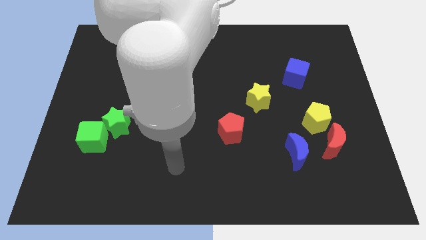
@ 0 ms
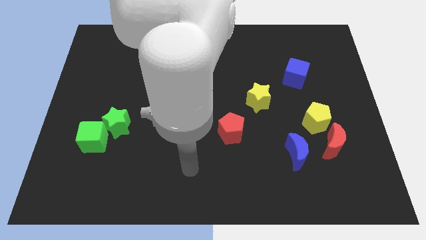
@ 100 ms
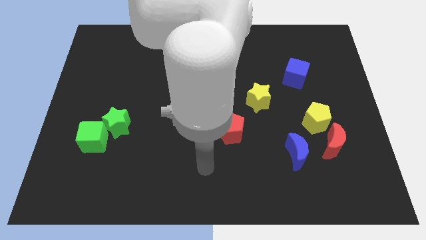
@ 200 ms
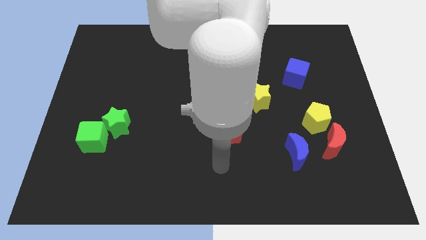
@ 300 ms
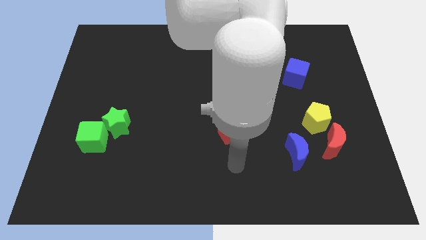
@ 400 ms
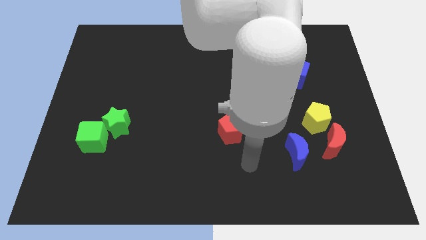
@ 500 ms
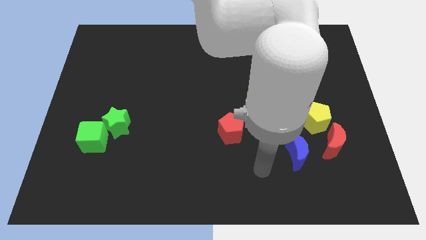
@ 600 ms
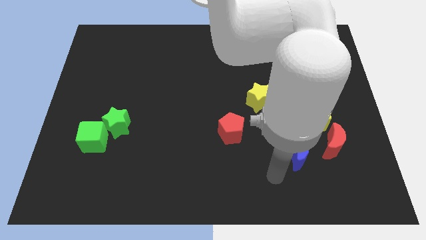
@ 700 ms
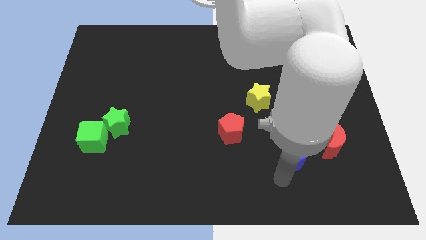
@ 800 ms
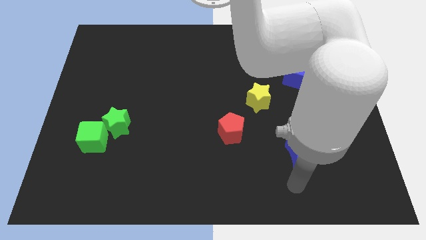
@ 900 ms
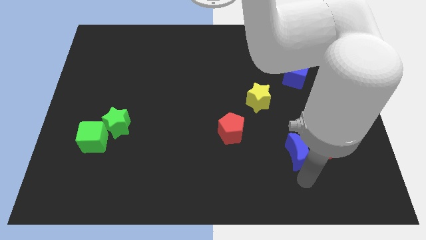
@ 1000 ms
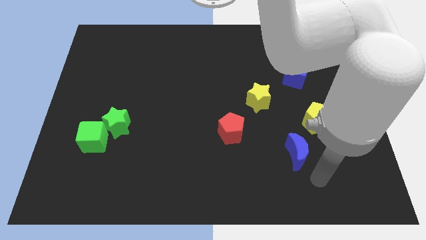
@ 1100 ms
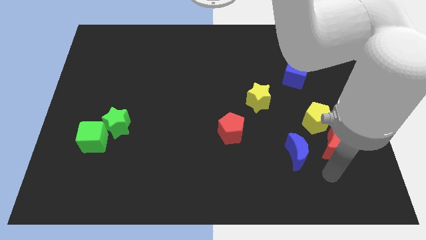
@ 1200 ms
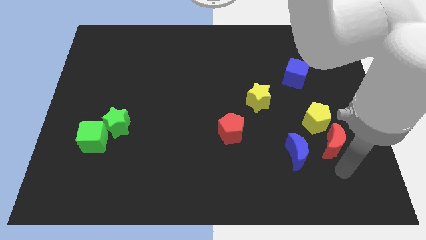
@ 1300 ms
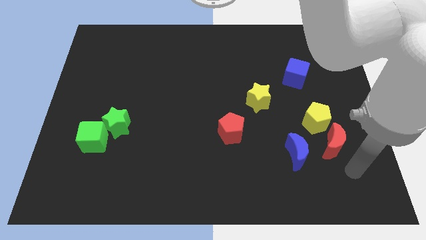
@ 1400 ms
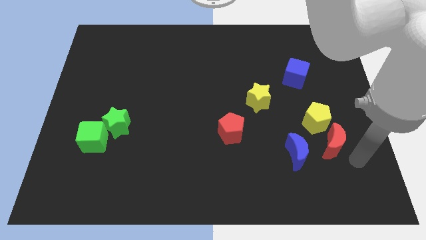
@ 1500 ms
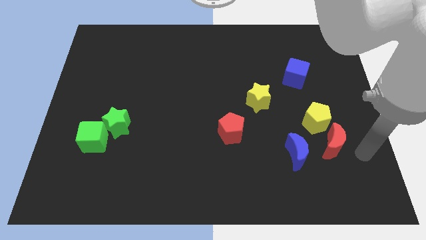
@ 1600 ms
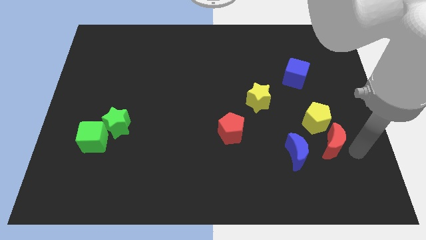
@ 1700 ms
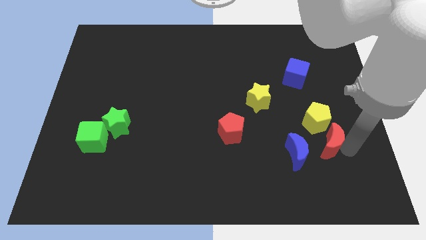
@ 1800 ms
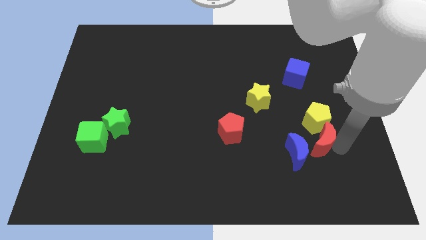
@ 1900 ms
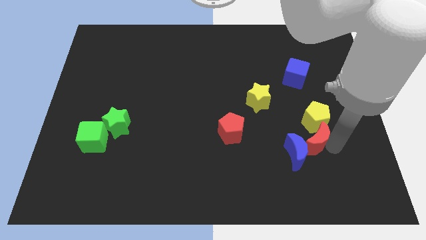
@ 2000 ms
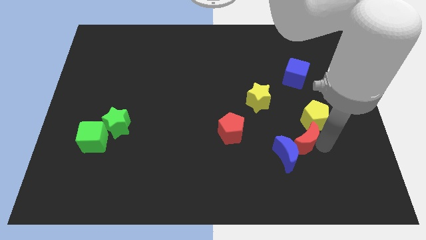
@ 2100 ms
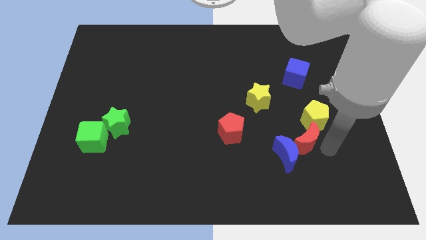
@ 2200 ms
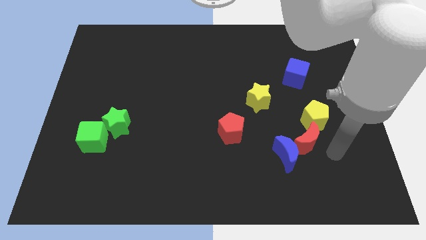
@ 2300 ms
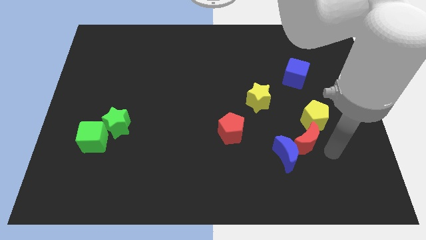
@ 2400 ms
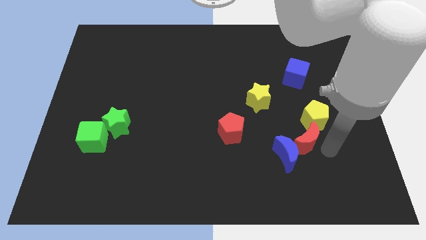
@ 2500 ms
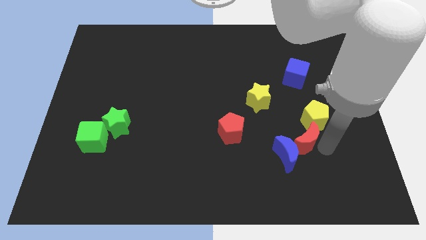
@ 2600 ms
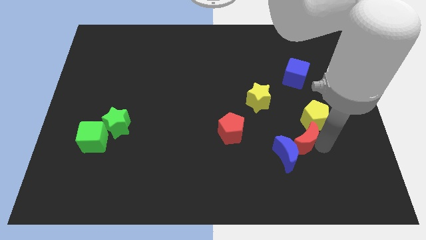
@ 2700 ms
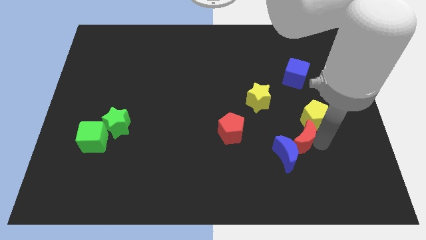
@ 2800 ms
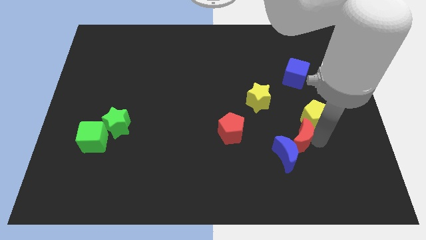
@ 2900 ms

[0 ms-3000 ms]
push the red moon left somewhat

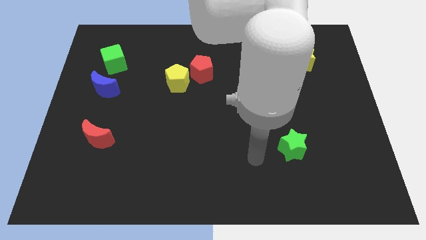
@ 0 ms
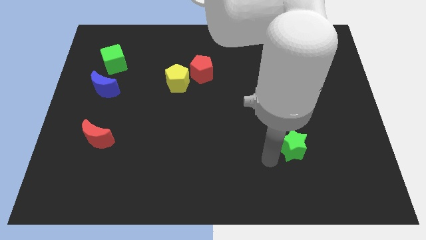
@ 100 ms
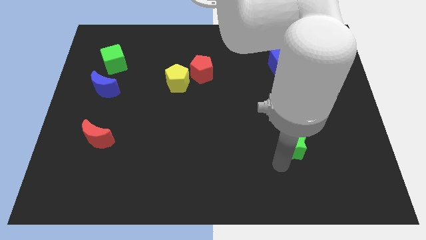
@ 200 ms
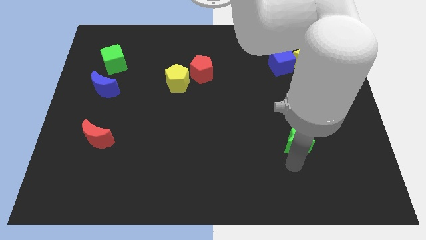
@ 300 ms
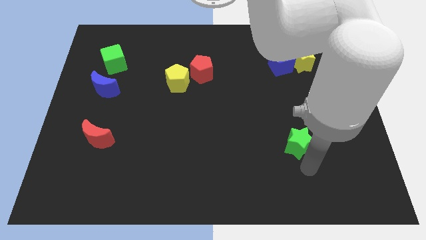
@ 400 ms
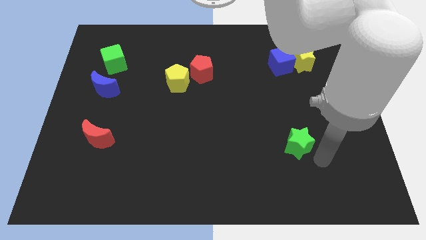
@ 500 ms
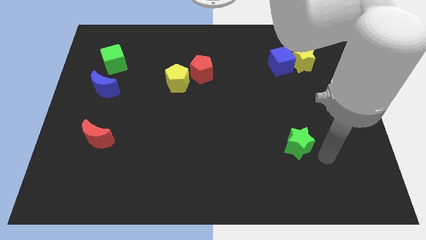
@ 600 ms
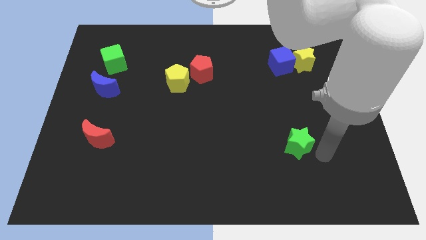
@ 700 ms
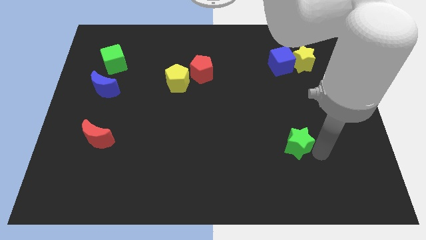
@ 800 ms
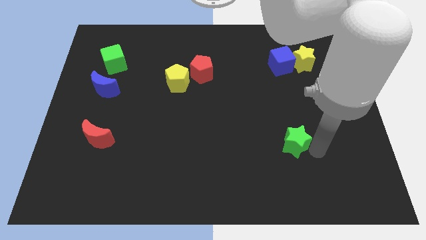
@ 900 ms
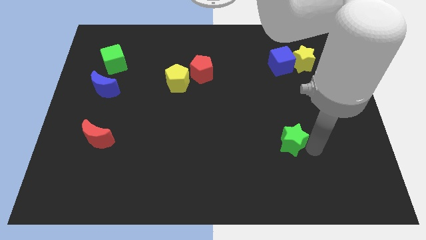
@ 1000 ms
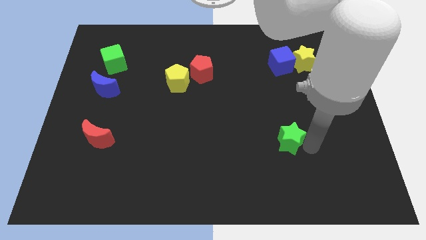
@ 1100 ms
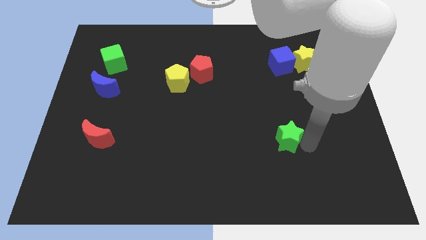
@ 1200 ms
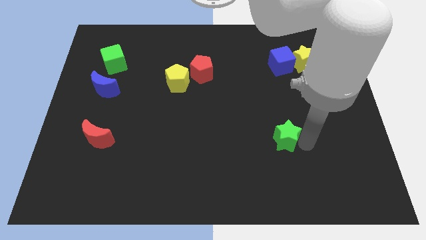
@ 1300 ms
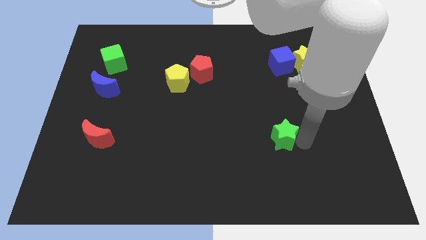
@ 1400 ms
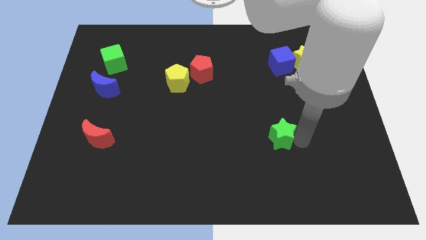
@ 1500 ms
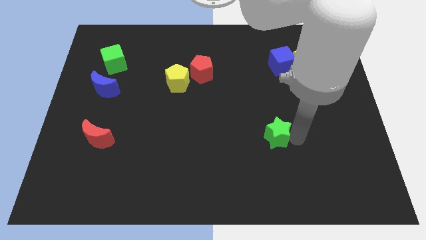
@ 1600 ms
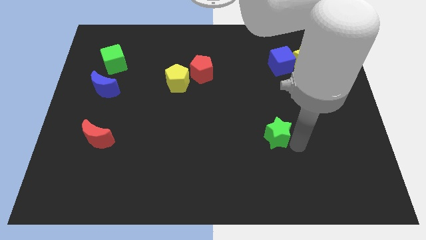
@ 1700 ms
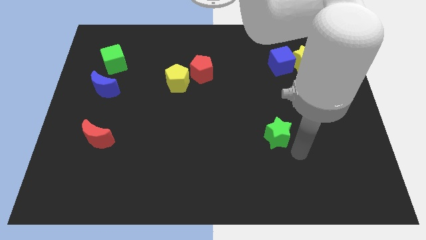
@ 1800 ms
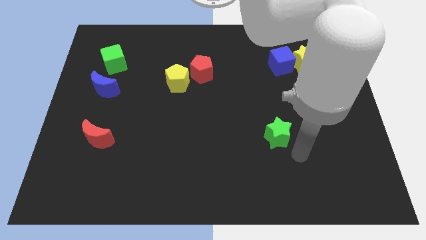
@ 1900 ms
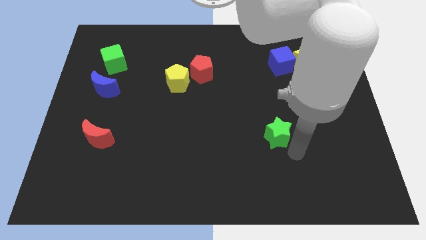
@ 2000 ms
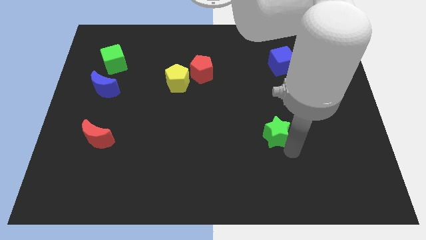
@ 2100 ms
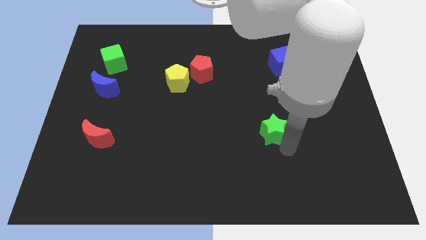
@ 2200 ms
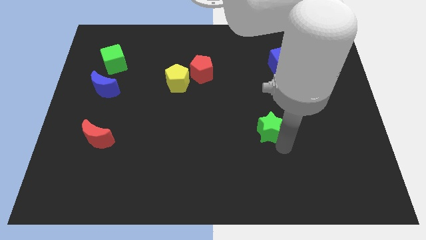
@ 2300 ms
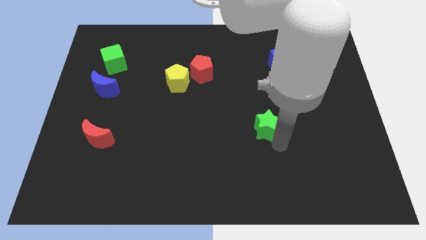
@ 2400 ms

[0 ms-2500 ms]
push the green star slightly diagonally upwards and to the left

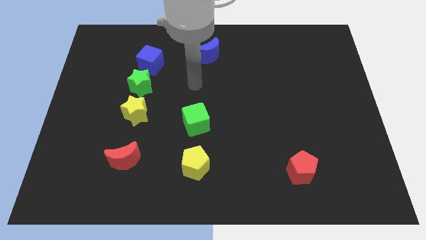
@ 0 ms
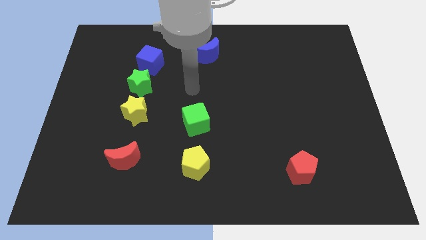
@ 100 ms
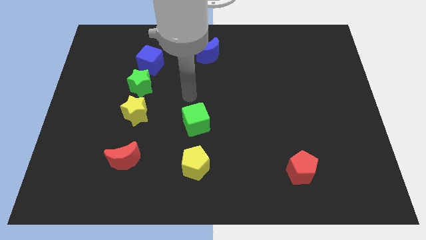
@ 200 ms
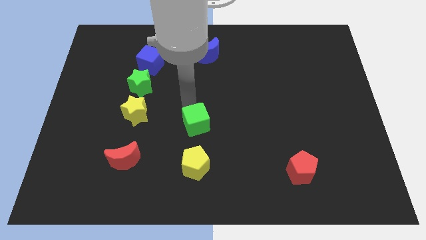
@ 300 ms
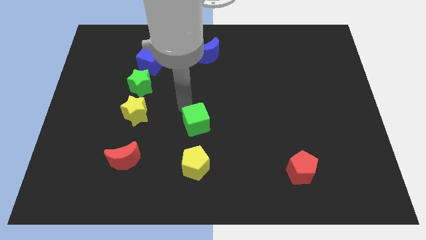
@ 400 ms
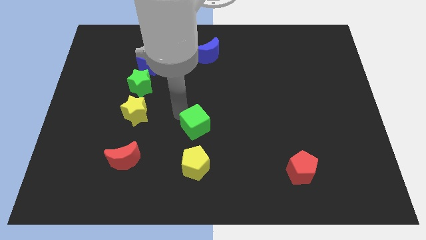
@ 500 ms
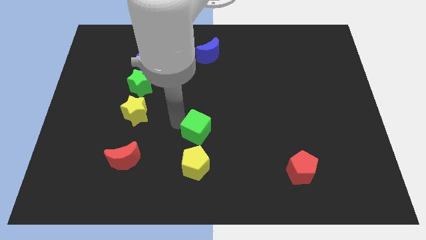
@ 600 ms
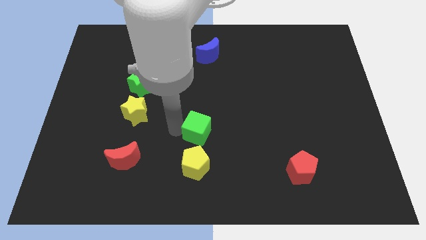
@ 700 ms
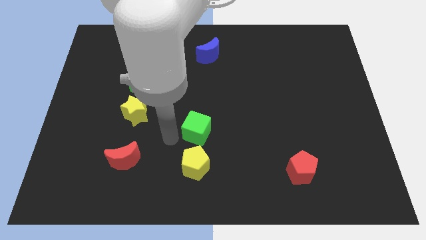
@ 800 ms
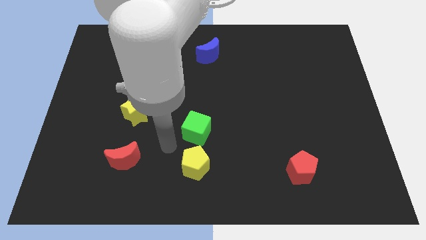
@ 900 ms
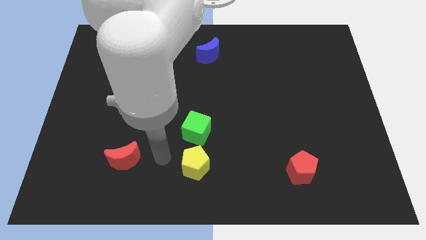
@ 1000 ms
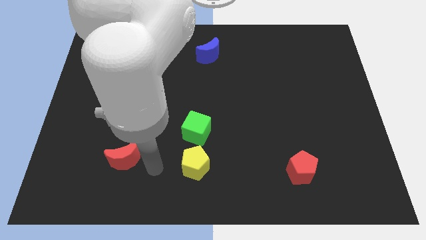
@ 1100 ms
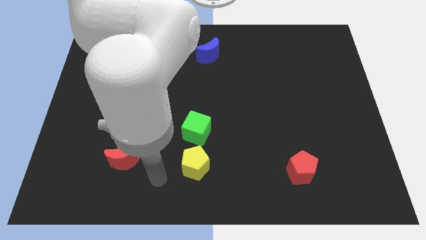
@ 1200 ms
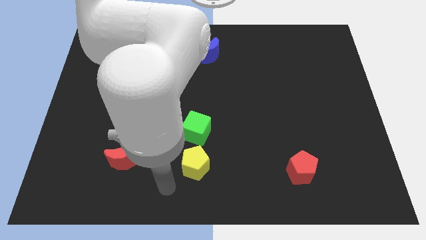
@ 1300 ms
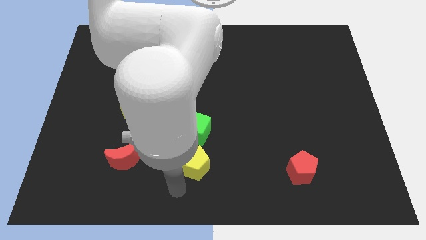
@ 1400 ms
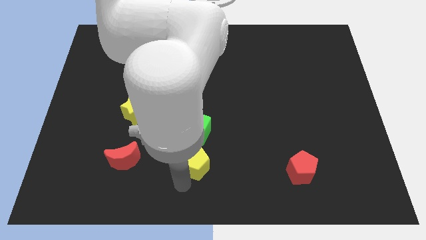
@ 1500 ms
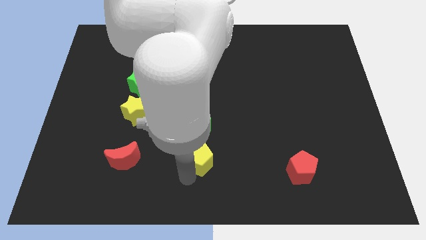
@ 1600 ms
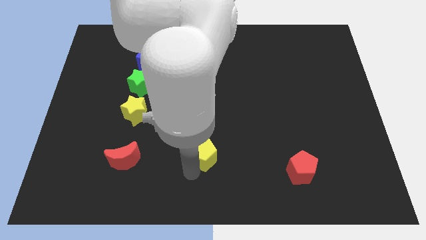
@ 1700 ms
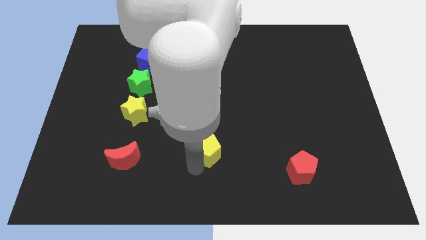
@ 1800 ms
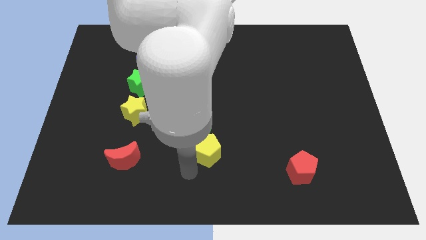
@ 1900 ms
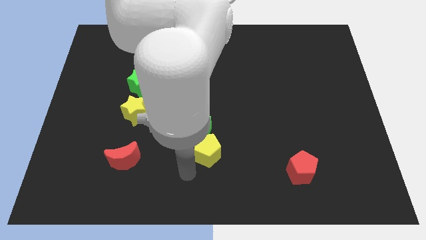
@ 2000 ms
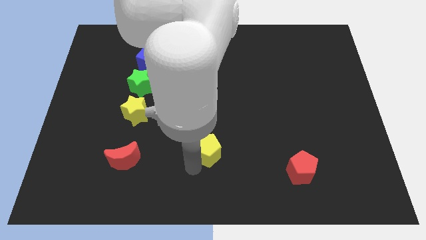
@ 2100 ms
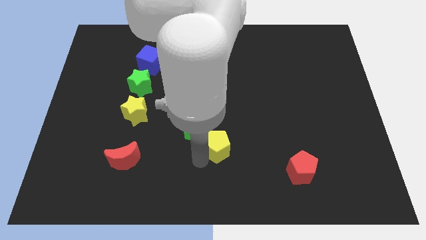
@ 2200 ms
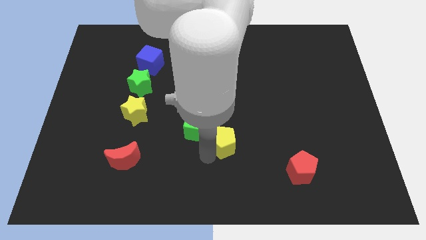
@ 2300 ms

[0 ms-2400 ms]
push the yellow pentagon a little bit upwards and to the right diagonally
